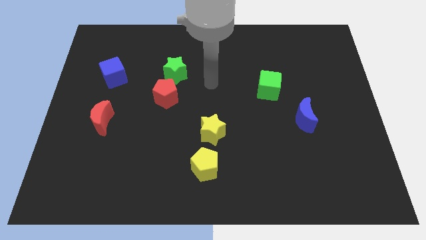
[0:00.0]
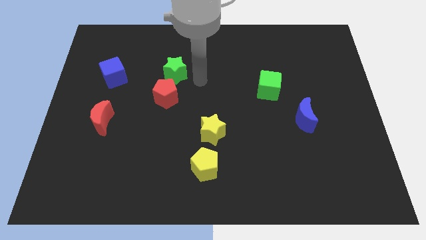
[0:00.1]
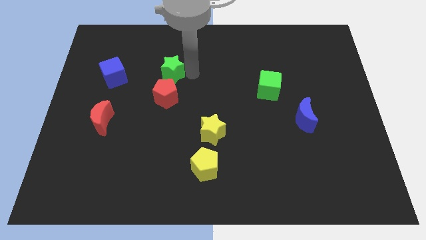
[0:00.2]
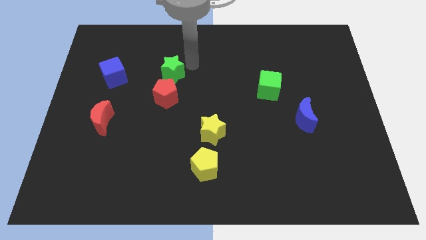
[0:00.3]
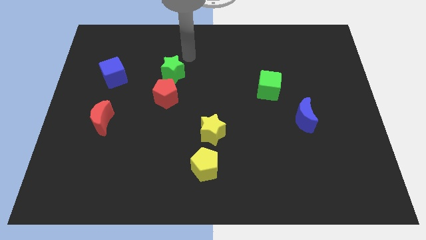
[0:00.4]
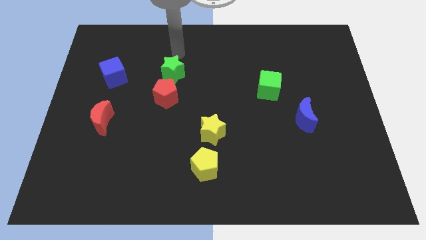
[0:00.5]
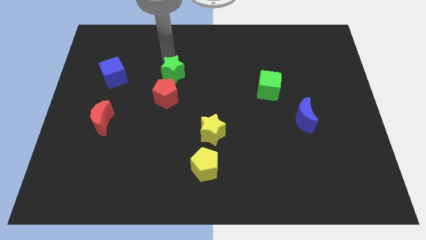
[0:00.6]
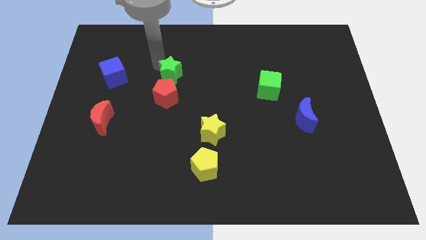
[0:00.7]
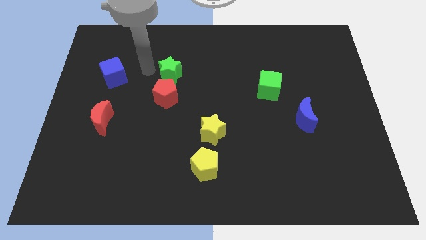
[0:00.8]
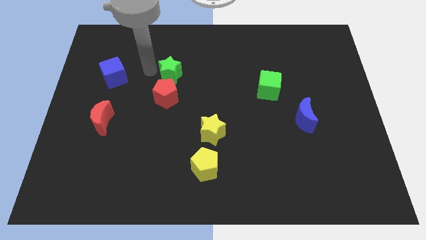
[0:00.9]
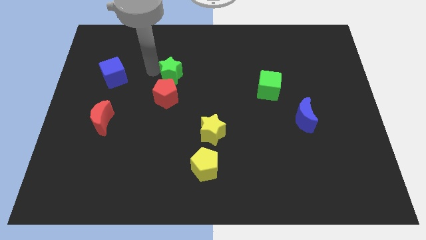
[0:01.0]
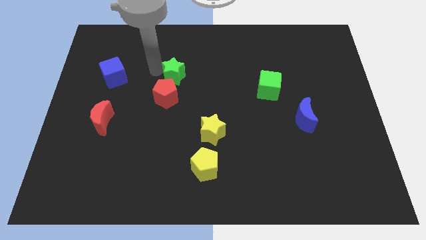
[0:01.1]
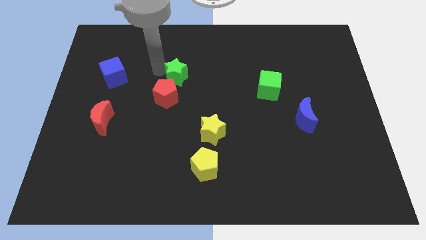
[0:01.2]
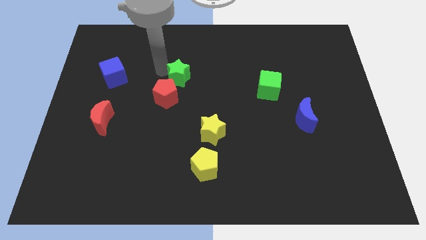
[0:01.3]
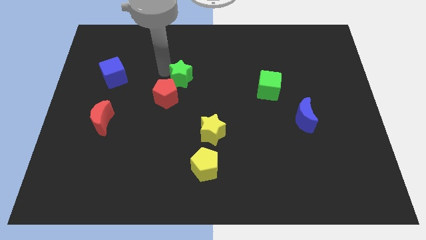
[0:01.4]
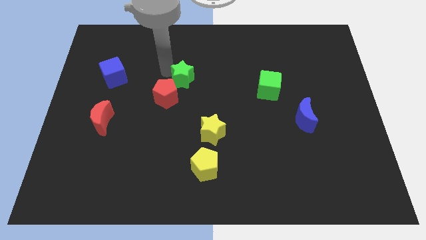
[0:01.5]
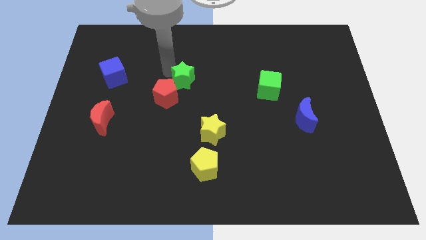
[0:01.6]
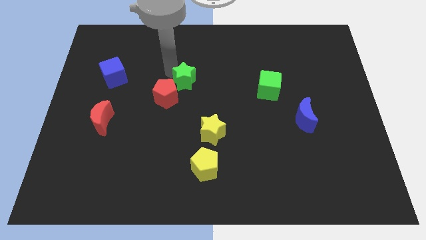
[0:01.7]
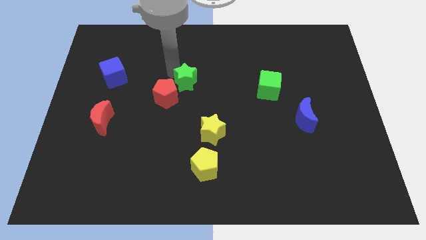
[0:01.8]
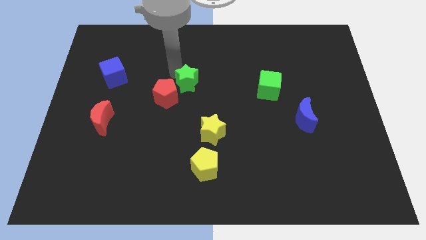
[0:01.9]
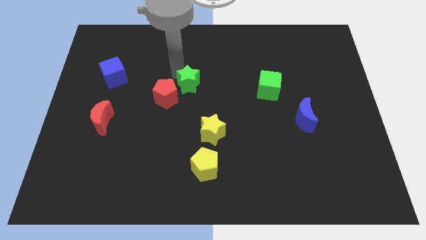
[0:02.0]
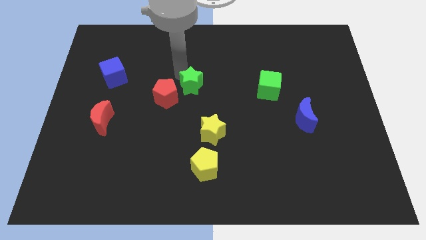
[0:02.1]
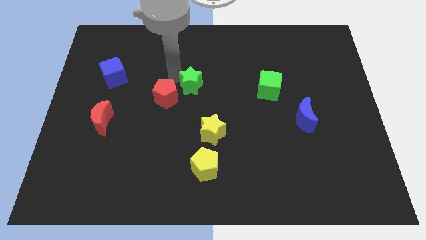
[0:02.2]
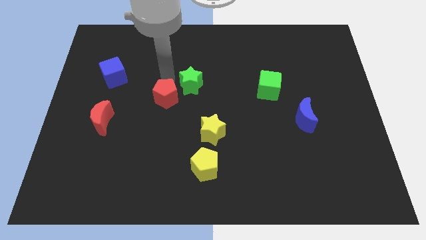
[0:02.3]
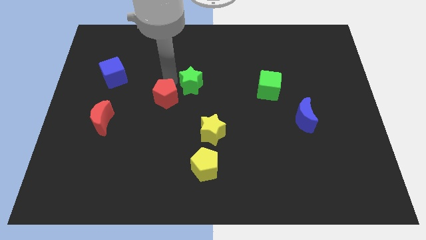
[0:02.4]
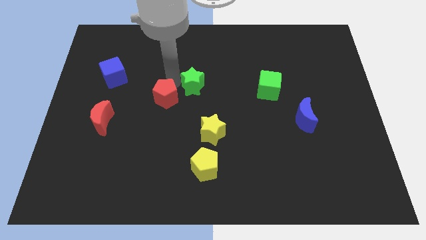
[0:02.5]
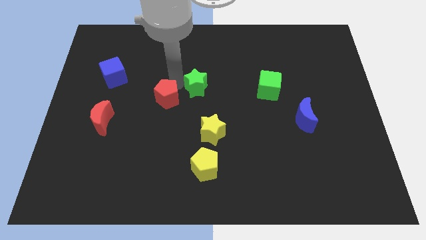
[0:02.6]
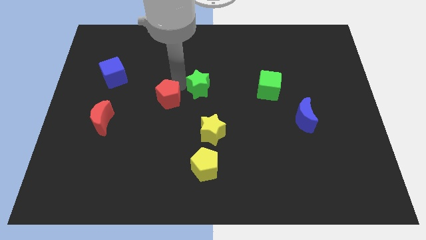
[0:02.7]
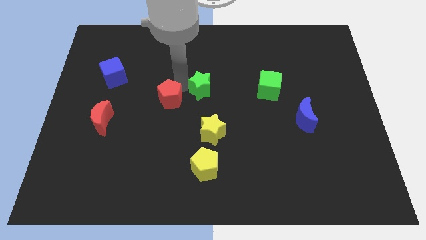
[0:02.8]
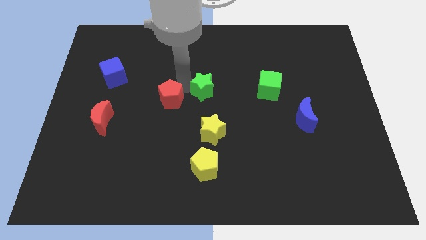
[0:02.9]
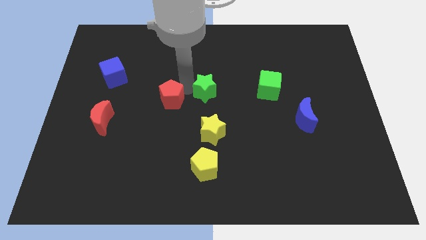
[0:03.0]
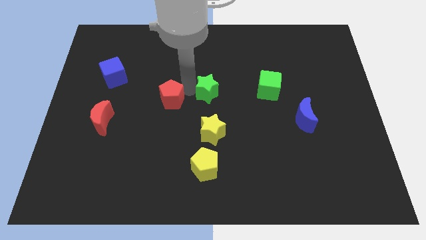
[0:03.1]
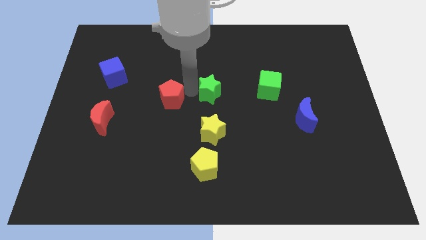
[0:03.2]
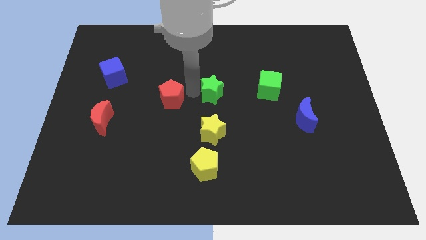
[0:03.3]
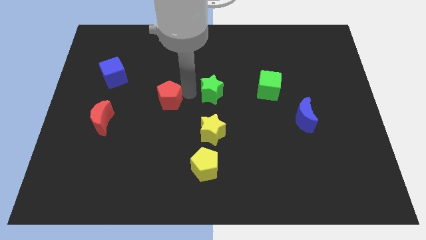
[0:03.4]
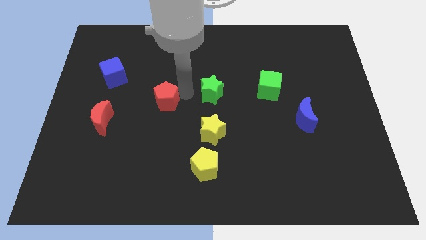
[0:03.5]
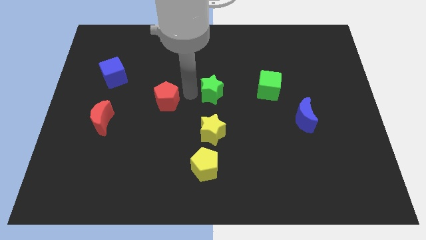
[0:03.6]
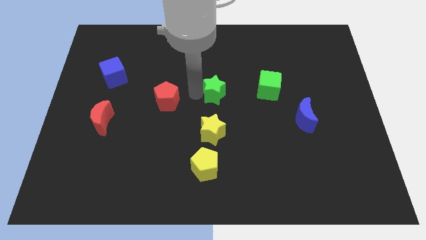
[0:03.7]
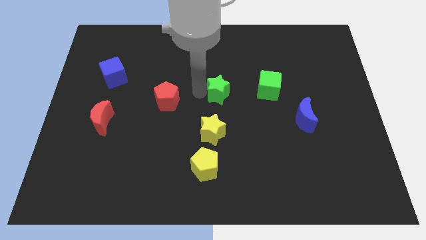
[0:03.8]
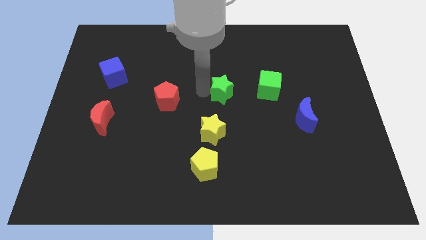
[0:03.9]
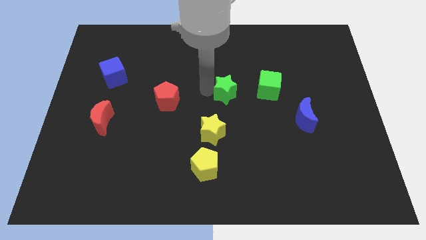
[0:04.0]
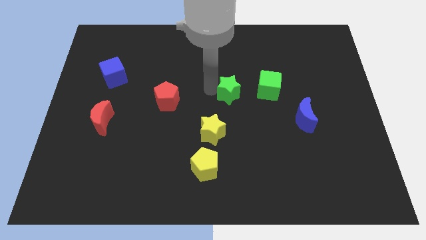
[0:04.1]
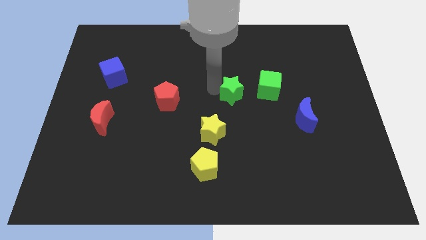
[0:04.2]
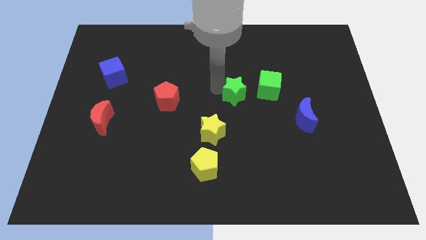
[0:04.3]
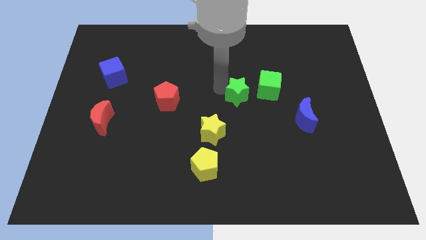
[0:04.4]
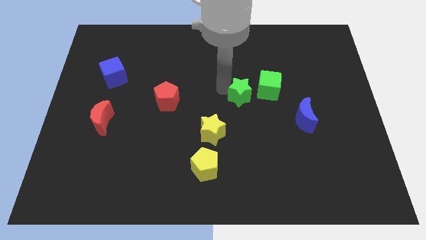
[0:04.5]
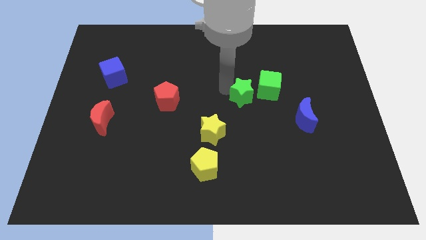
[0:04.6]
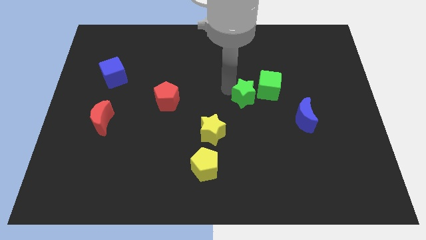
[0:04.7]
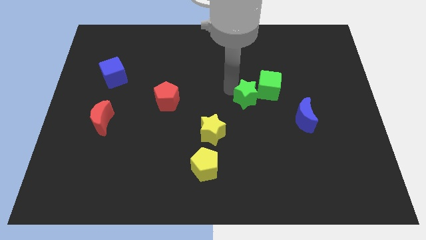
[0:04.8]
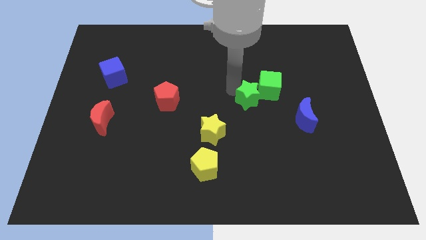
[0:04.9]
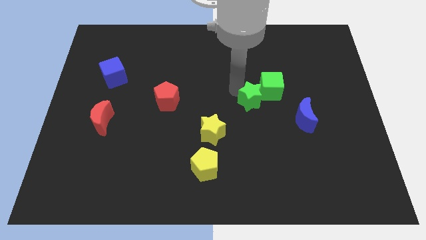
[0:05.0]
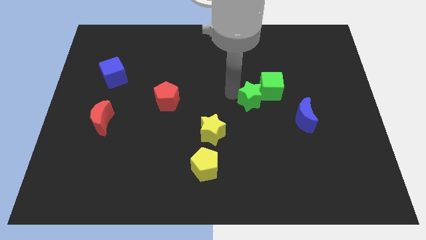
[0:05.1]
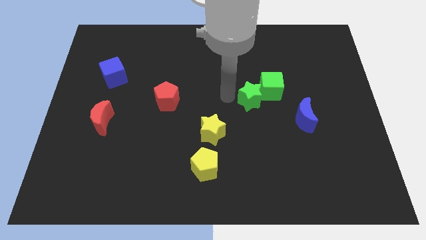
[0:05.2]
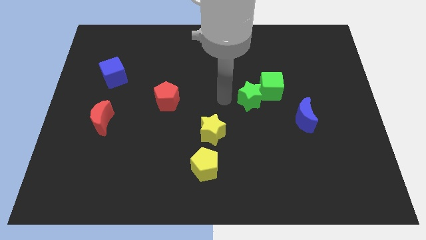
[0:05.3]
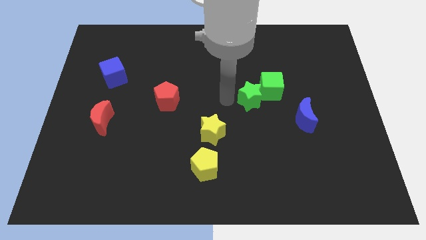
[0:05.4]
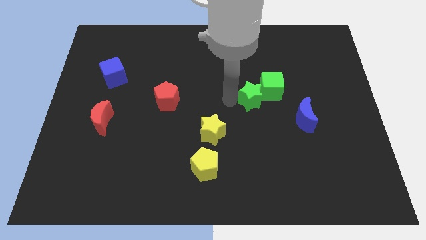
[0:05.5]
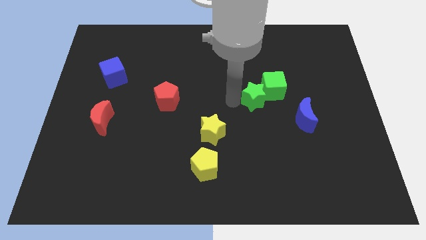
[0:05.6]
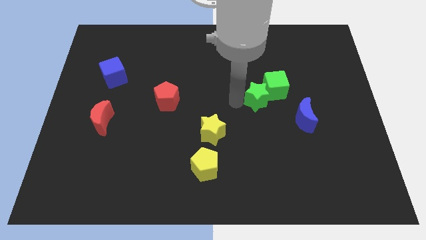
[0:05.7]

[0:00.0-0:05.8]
slide the green star diagonally up and to the left of the blue moon
